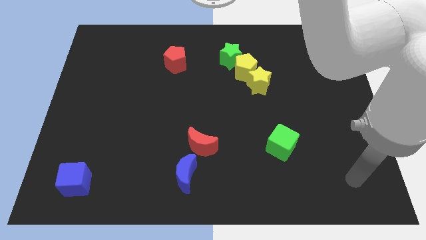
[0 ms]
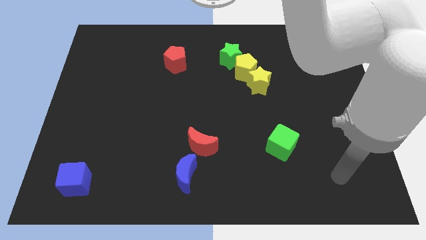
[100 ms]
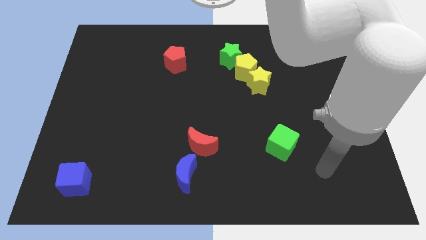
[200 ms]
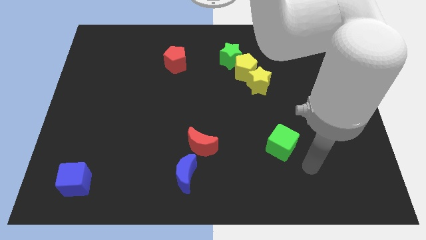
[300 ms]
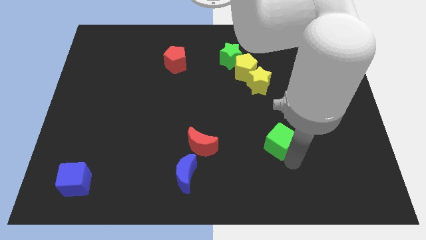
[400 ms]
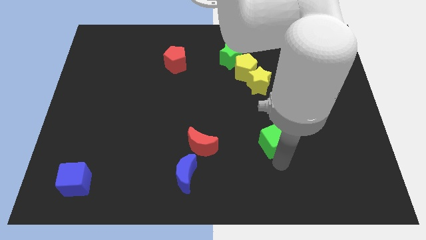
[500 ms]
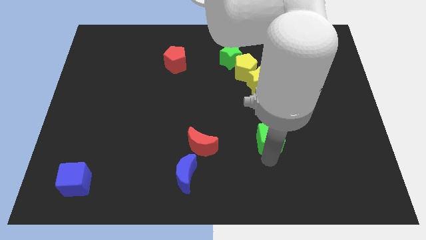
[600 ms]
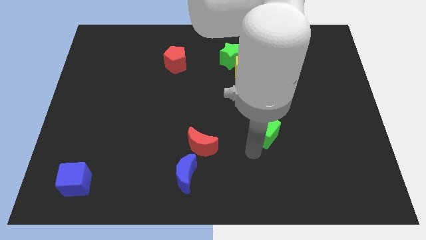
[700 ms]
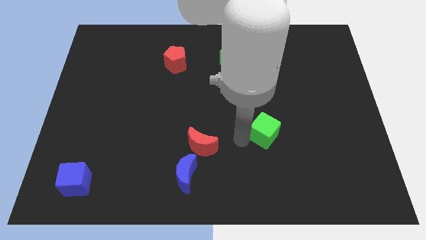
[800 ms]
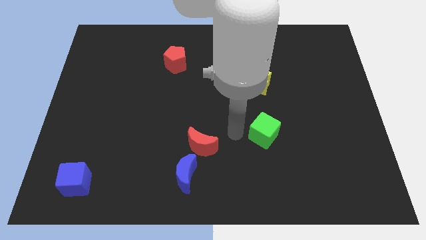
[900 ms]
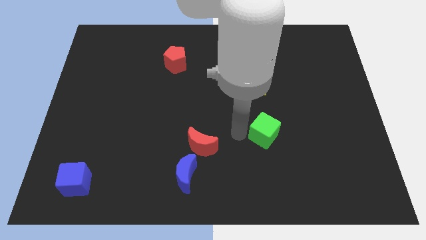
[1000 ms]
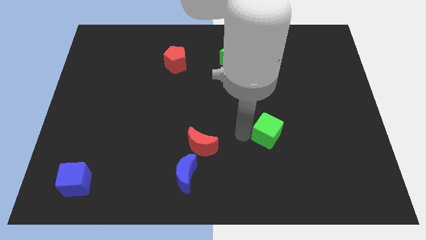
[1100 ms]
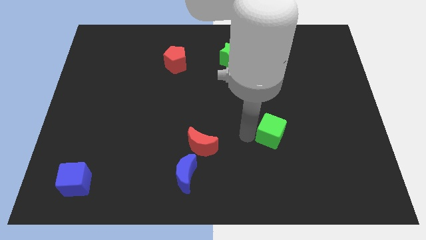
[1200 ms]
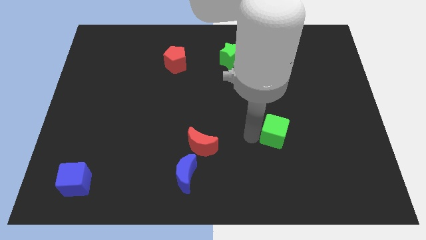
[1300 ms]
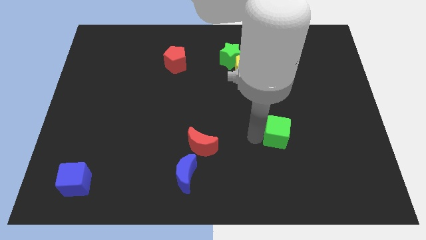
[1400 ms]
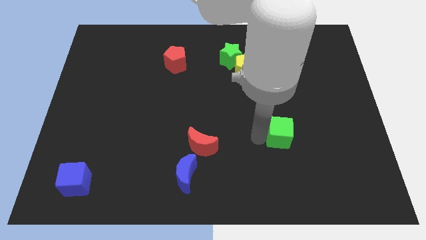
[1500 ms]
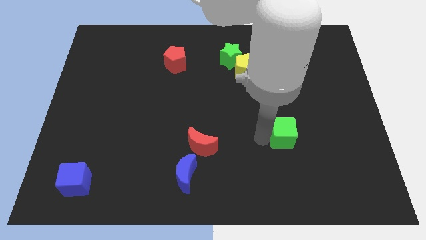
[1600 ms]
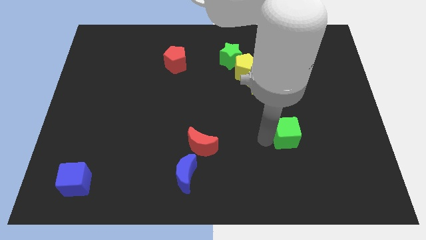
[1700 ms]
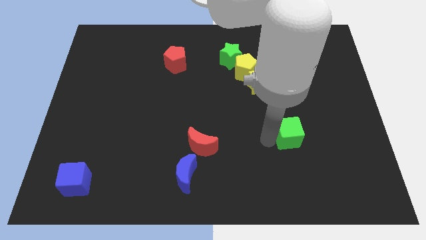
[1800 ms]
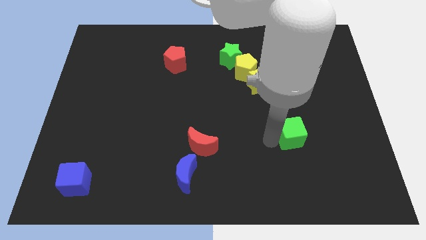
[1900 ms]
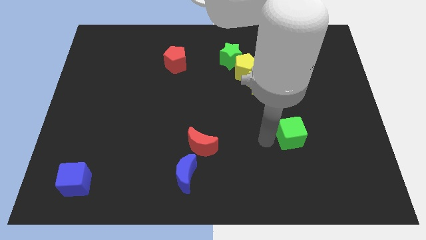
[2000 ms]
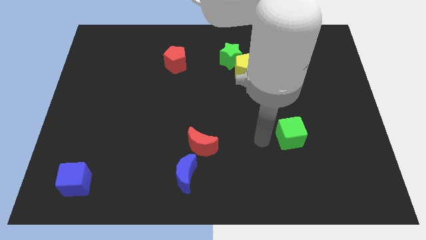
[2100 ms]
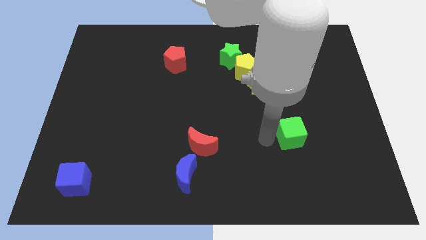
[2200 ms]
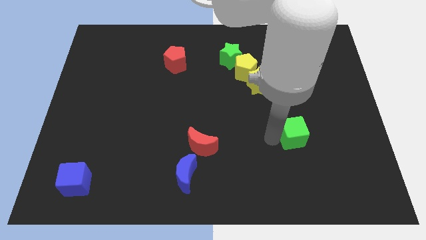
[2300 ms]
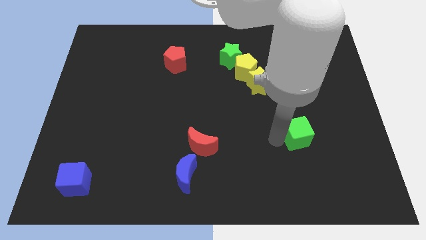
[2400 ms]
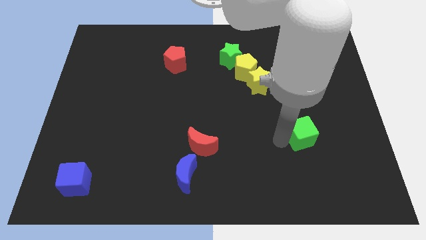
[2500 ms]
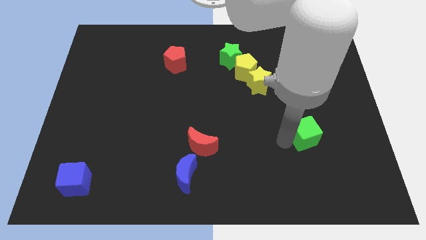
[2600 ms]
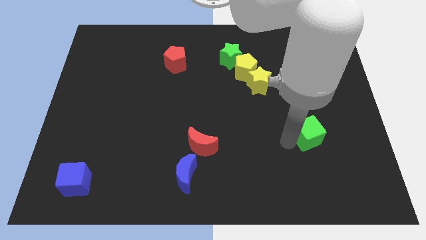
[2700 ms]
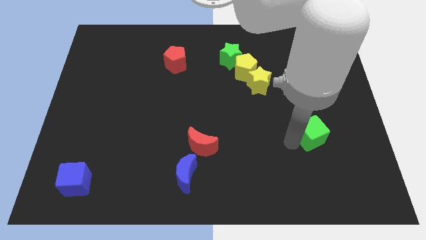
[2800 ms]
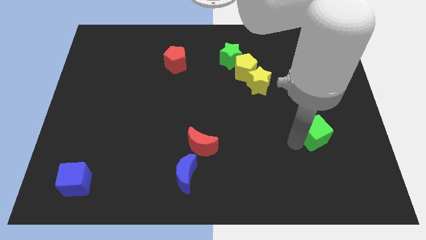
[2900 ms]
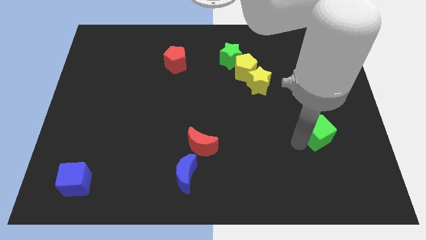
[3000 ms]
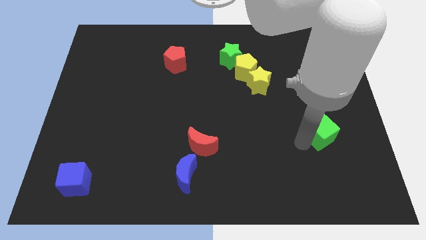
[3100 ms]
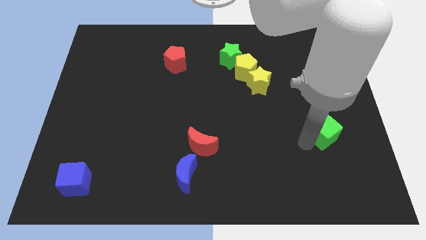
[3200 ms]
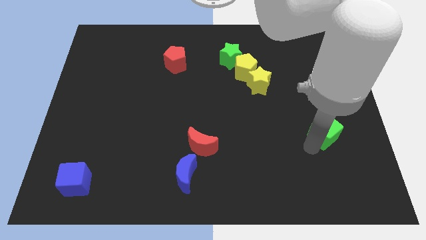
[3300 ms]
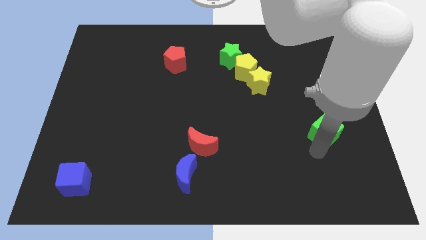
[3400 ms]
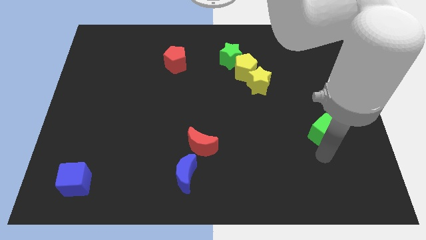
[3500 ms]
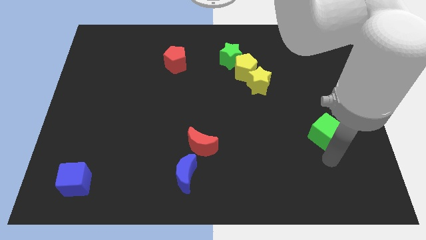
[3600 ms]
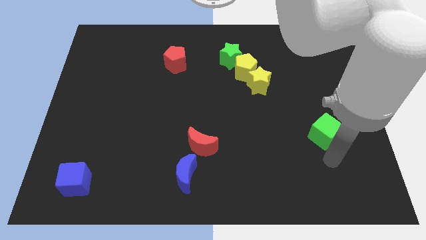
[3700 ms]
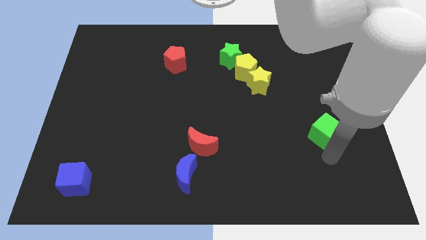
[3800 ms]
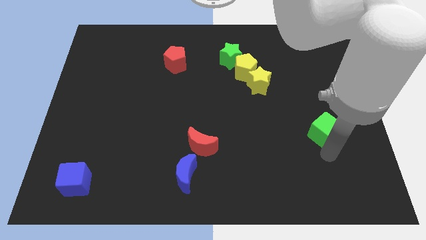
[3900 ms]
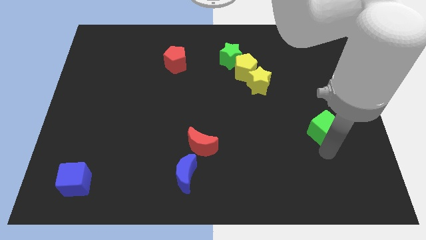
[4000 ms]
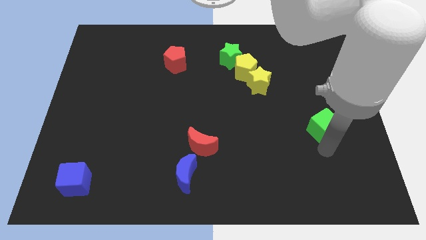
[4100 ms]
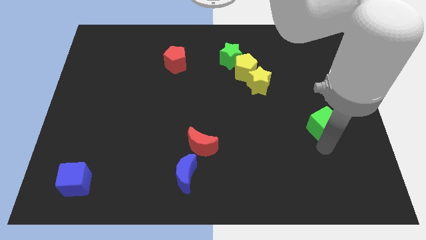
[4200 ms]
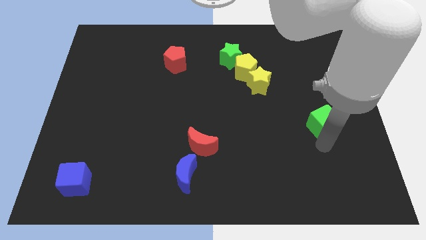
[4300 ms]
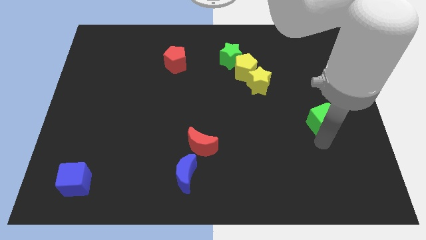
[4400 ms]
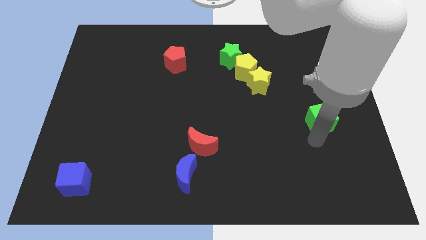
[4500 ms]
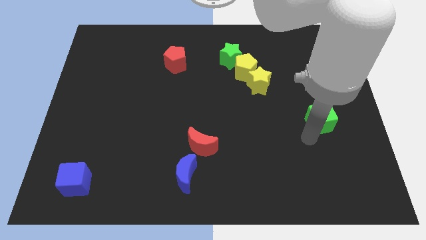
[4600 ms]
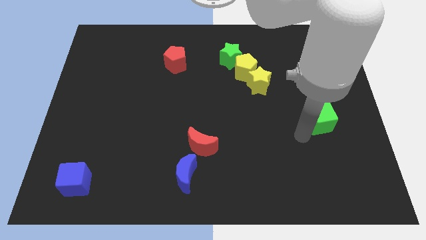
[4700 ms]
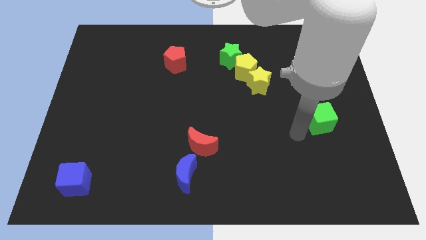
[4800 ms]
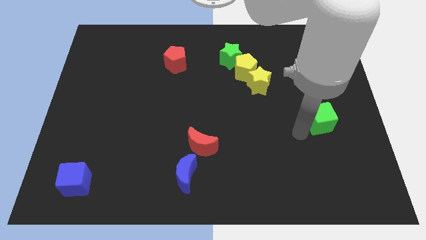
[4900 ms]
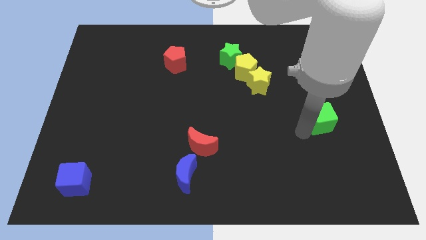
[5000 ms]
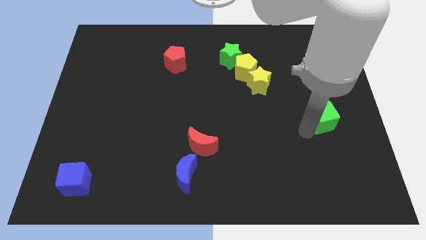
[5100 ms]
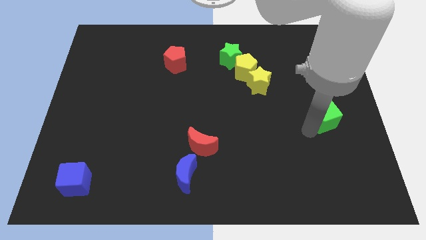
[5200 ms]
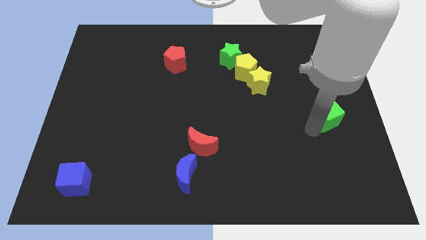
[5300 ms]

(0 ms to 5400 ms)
slide the green cube to the center right
